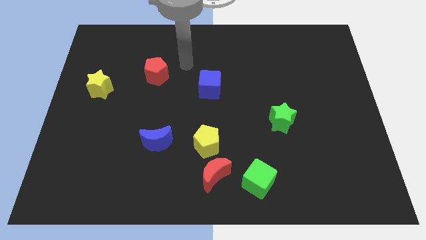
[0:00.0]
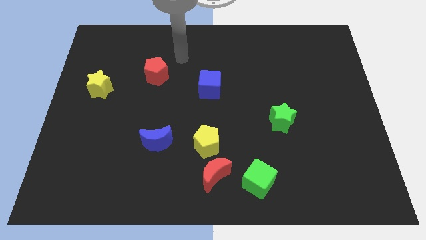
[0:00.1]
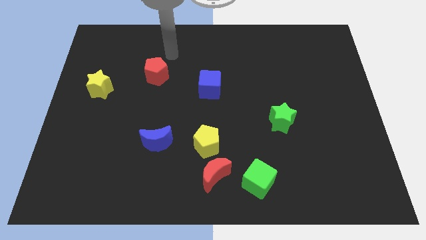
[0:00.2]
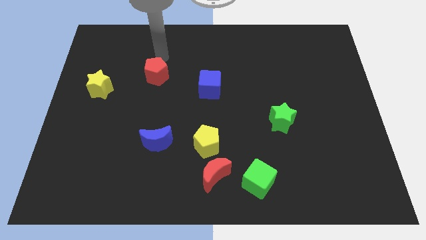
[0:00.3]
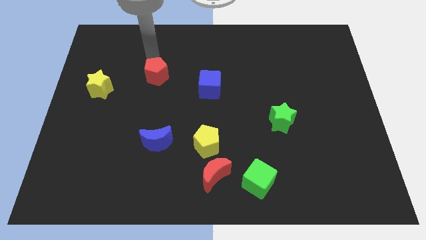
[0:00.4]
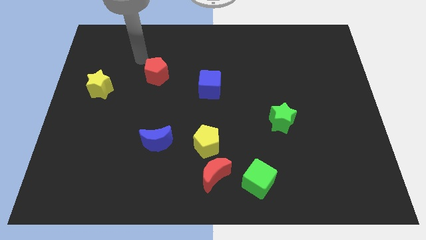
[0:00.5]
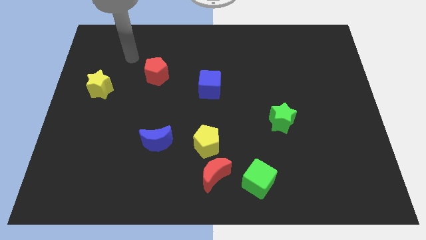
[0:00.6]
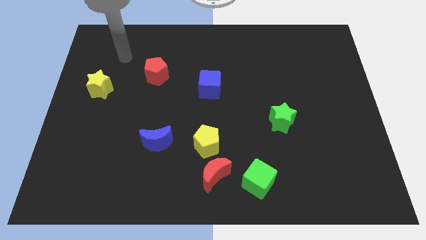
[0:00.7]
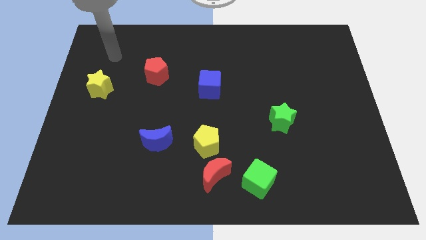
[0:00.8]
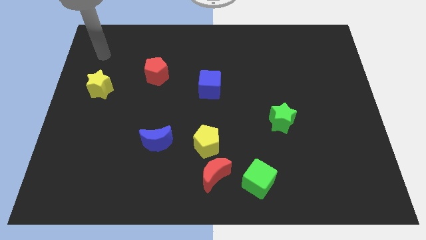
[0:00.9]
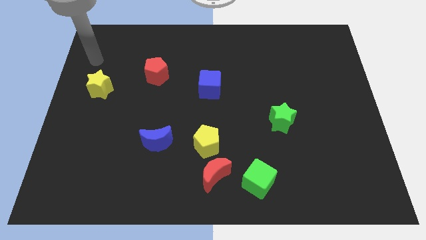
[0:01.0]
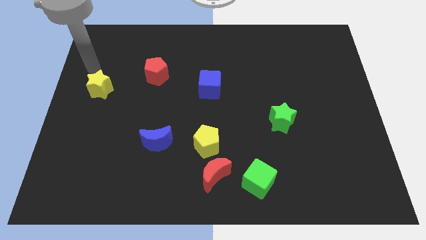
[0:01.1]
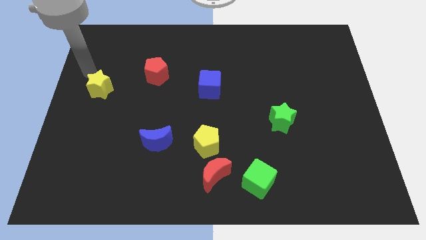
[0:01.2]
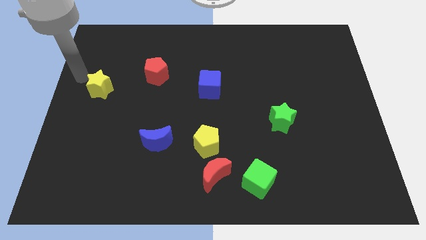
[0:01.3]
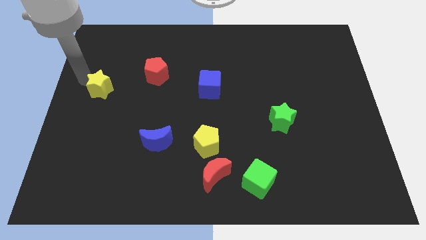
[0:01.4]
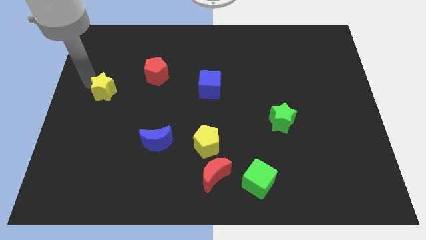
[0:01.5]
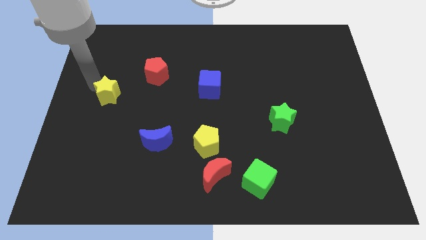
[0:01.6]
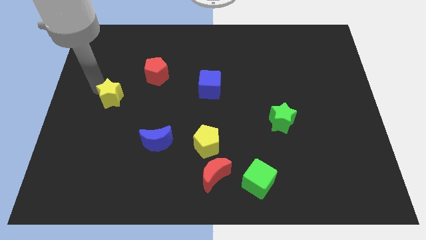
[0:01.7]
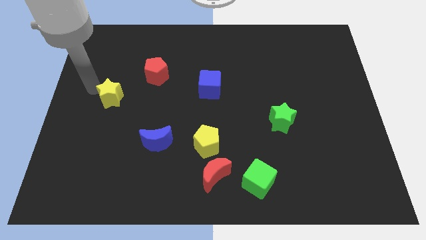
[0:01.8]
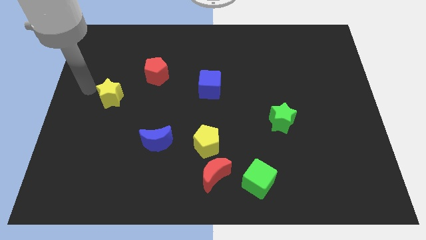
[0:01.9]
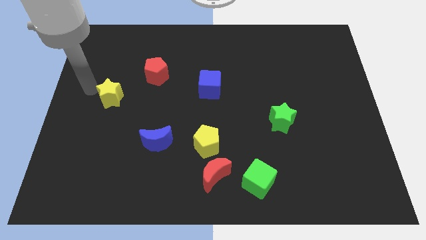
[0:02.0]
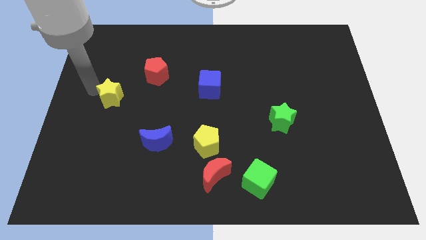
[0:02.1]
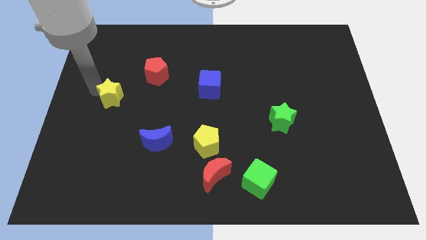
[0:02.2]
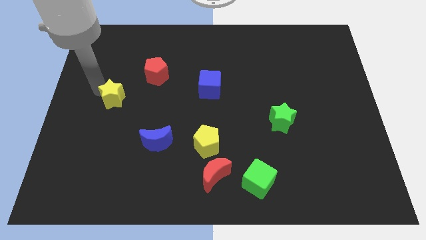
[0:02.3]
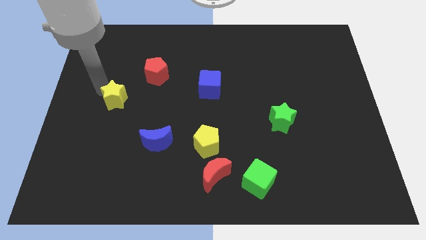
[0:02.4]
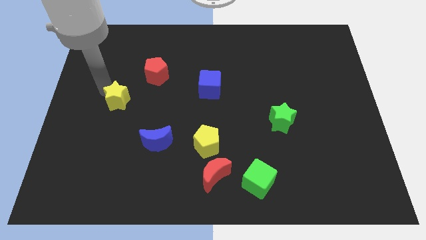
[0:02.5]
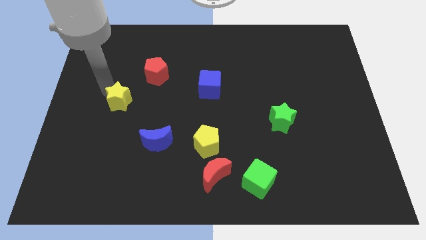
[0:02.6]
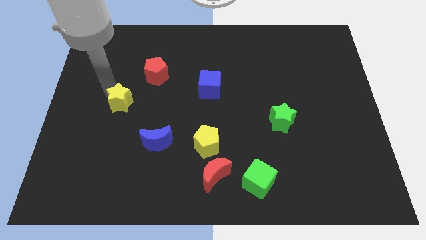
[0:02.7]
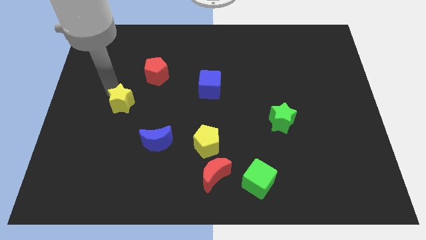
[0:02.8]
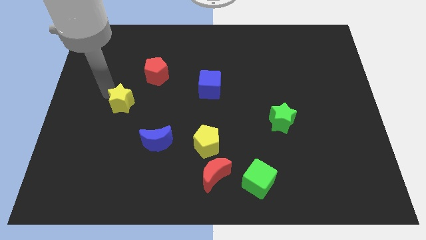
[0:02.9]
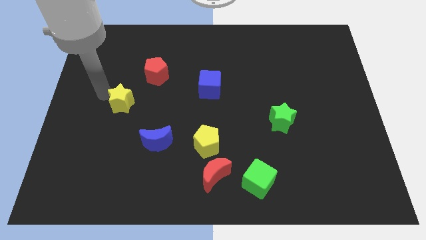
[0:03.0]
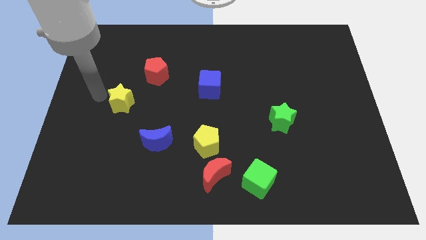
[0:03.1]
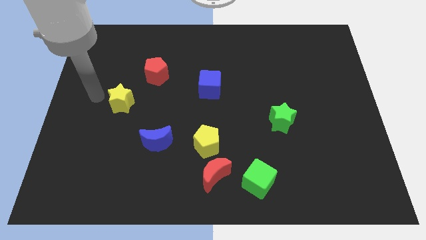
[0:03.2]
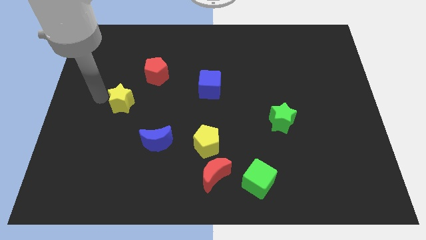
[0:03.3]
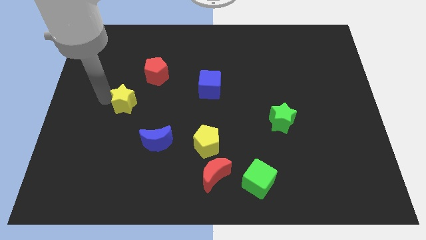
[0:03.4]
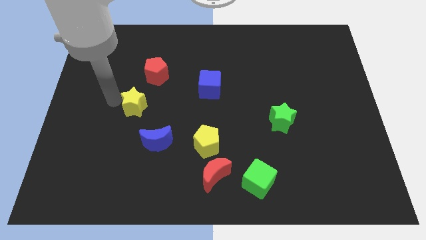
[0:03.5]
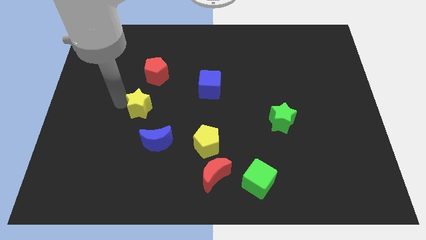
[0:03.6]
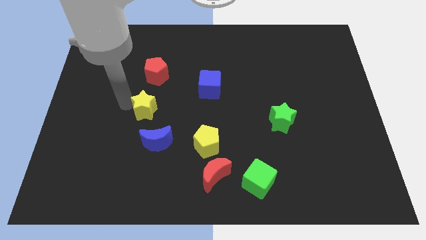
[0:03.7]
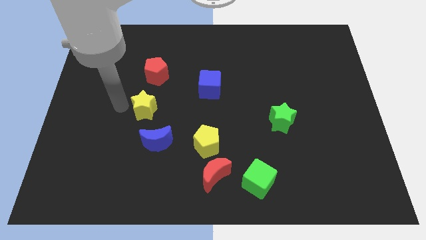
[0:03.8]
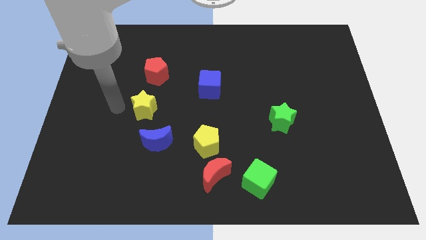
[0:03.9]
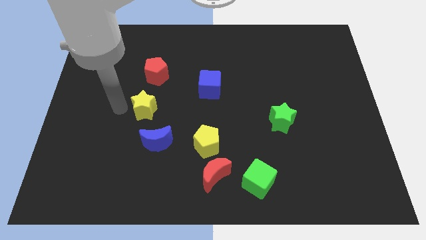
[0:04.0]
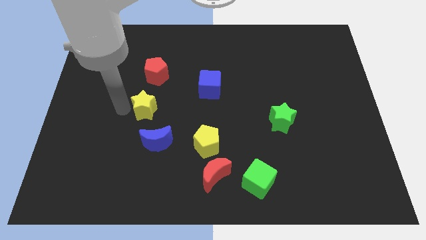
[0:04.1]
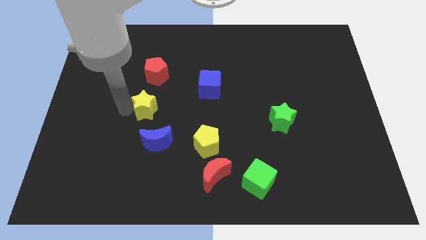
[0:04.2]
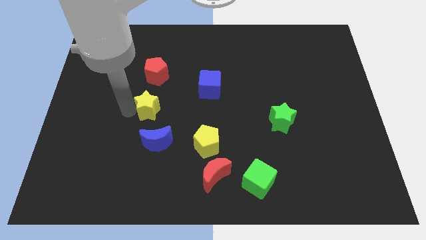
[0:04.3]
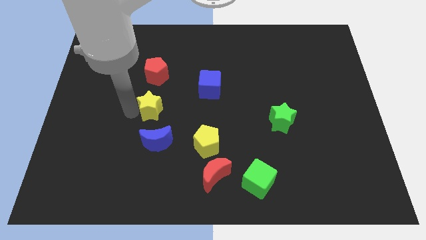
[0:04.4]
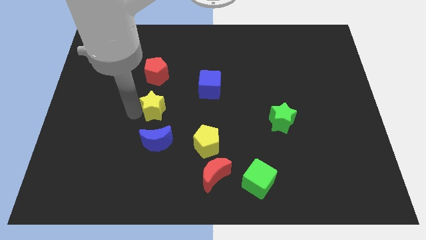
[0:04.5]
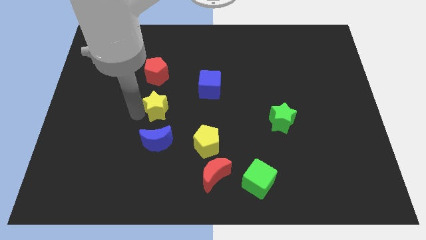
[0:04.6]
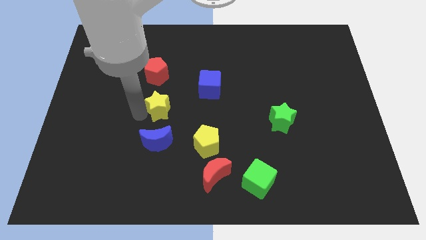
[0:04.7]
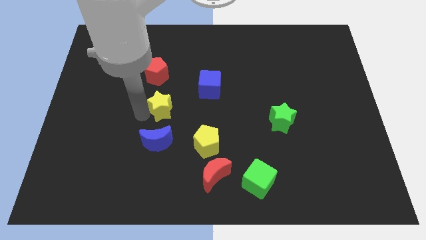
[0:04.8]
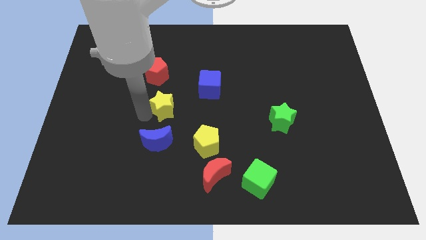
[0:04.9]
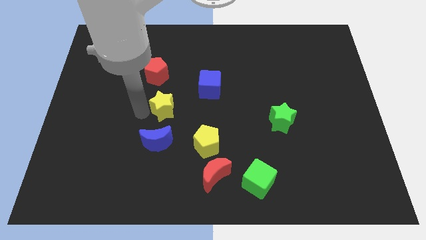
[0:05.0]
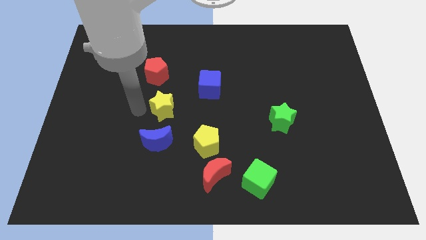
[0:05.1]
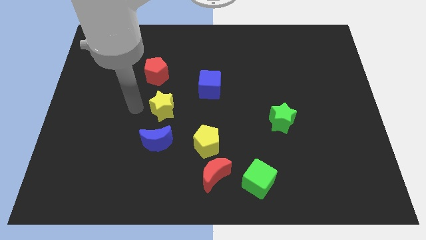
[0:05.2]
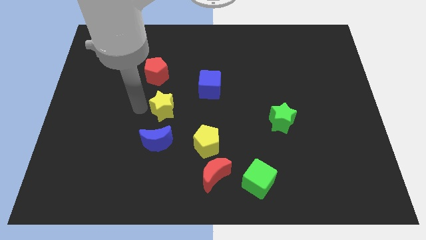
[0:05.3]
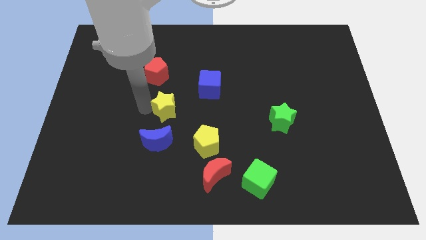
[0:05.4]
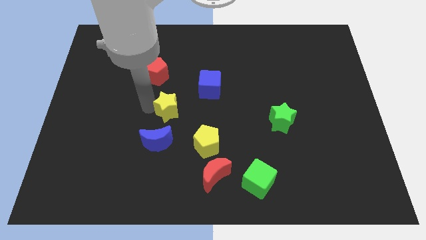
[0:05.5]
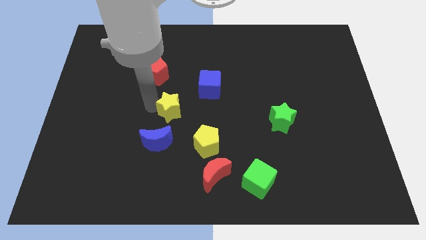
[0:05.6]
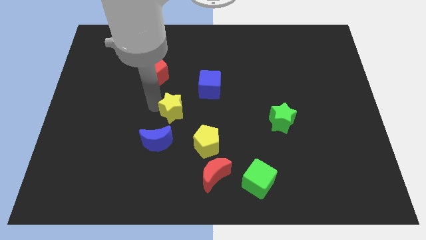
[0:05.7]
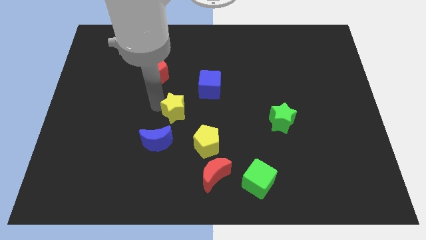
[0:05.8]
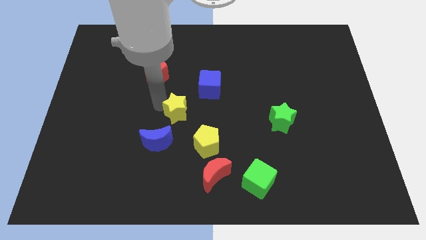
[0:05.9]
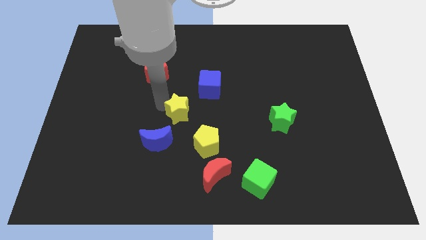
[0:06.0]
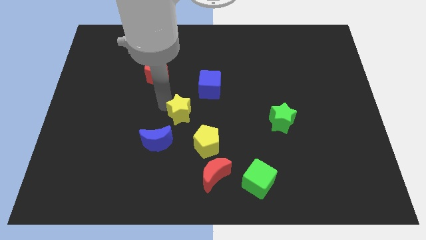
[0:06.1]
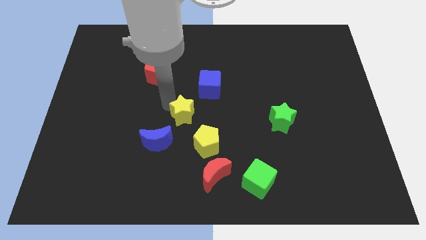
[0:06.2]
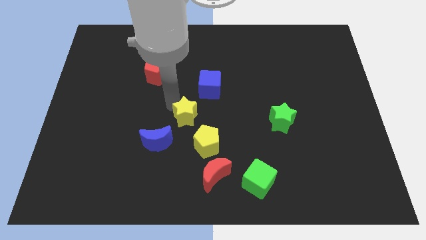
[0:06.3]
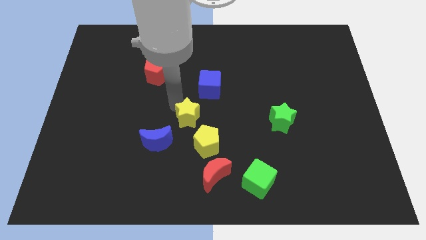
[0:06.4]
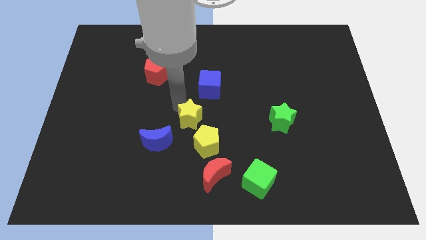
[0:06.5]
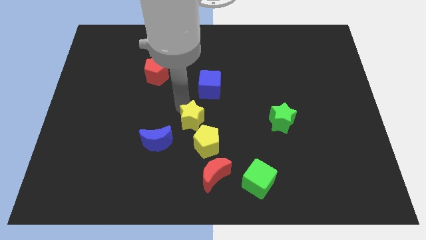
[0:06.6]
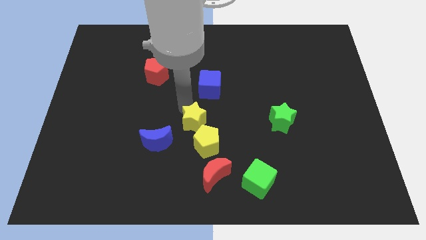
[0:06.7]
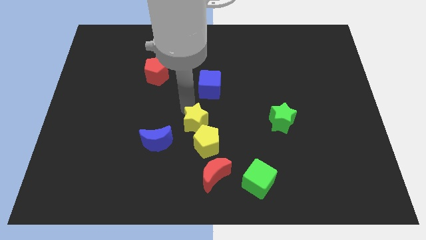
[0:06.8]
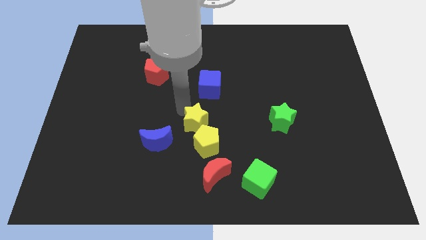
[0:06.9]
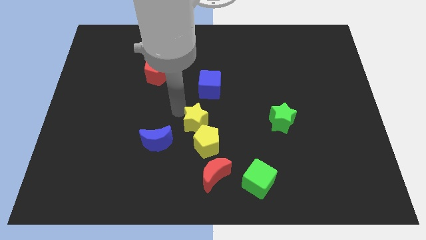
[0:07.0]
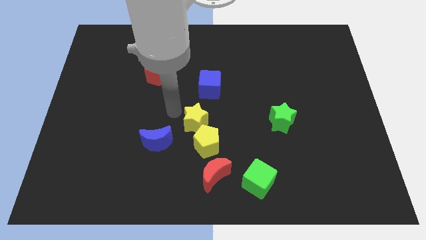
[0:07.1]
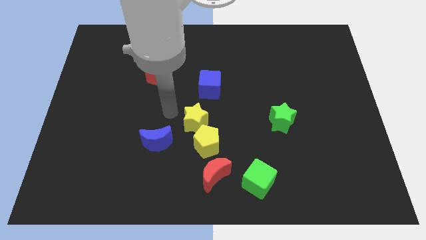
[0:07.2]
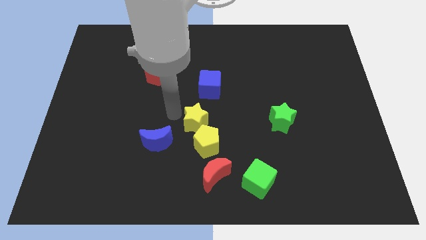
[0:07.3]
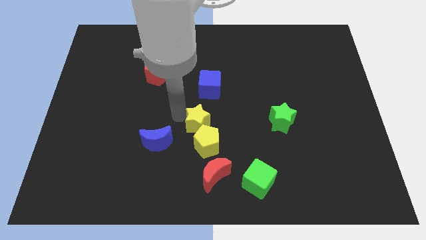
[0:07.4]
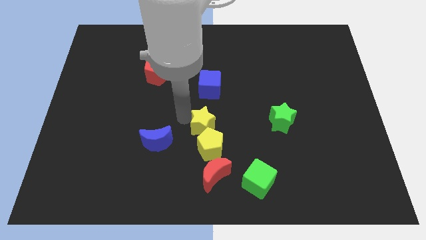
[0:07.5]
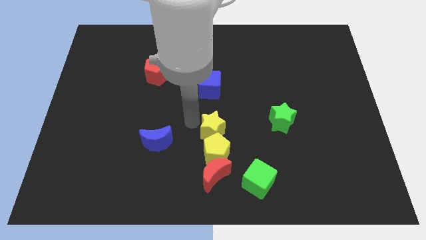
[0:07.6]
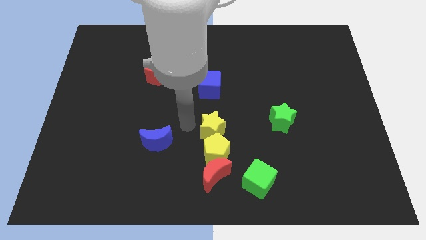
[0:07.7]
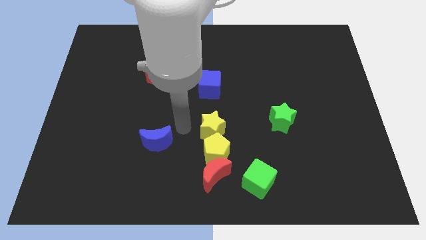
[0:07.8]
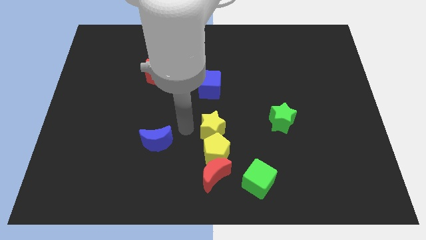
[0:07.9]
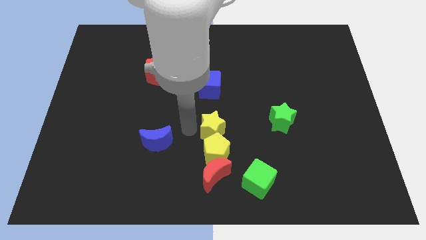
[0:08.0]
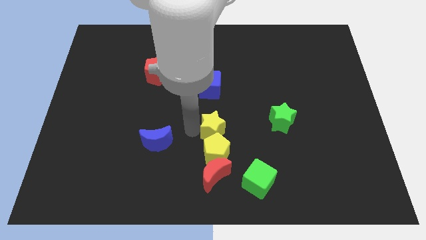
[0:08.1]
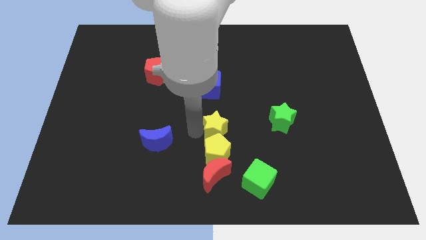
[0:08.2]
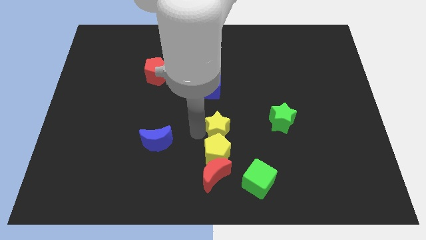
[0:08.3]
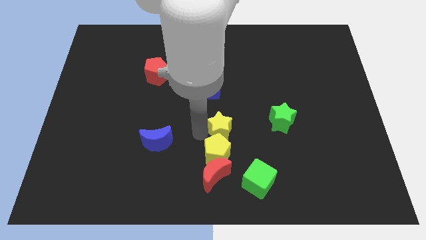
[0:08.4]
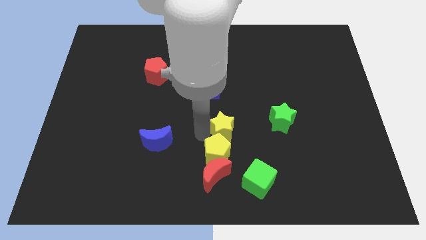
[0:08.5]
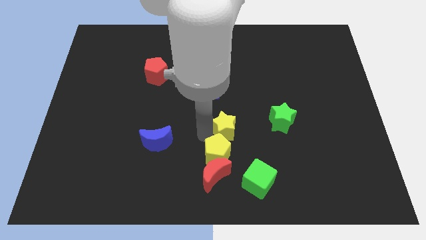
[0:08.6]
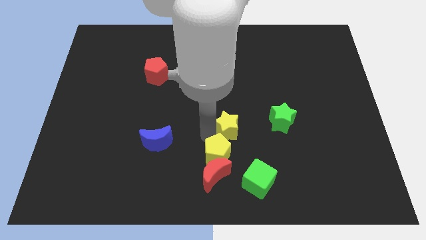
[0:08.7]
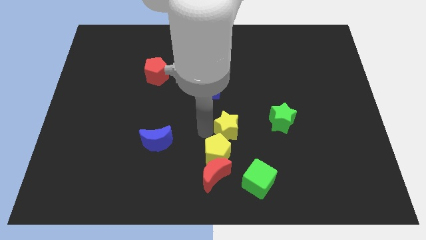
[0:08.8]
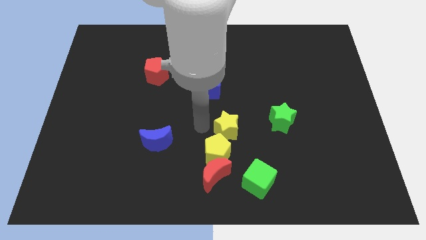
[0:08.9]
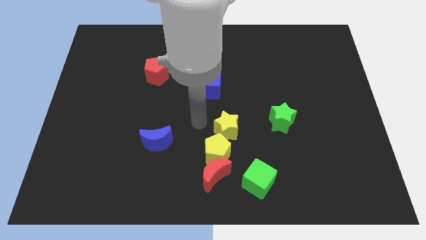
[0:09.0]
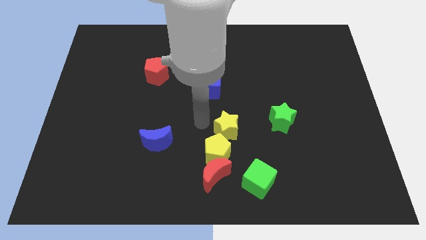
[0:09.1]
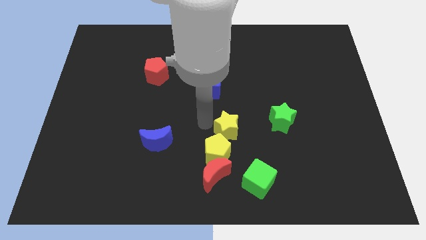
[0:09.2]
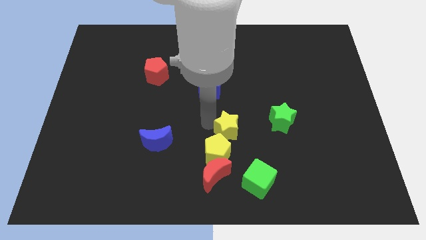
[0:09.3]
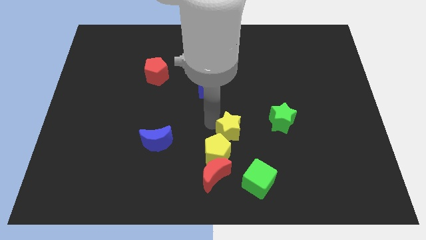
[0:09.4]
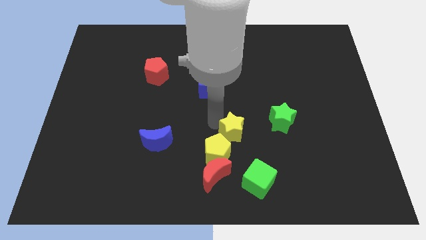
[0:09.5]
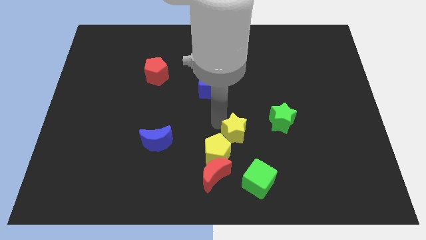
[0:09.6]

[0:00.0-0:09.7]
move the yellow star to the top side of the green cube
